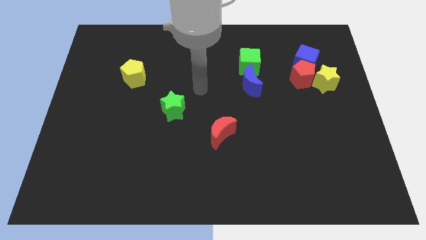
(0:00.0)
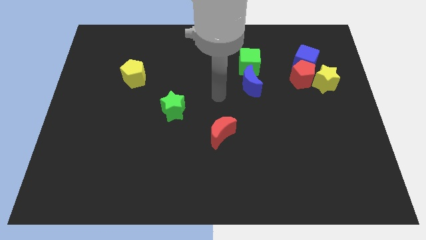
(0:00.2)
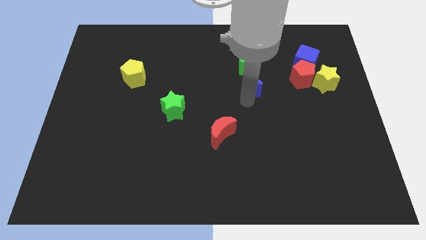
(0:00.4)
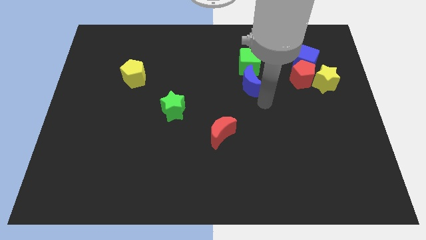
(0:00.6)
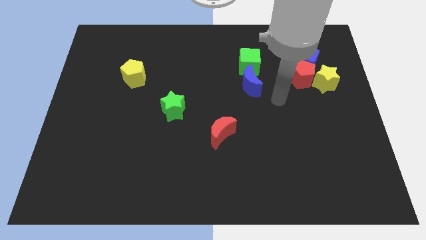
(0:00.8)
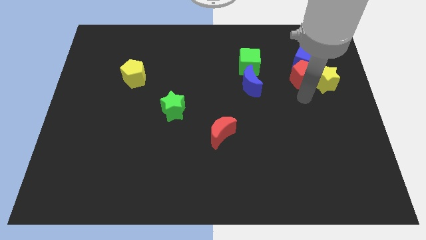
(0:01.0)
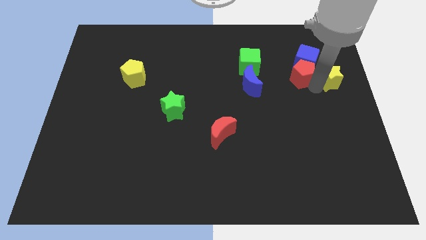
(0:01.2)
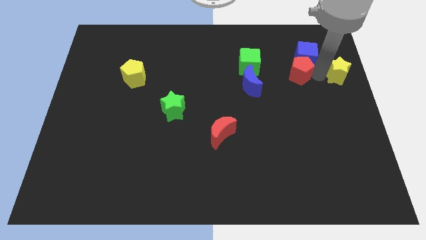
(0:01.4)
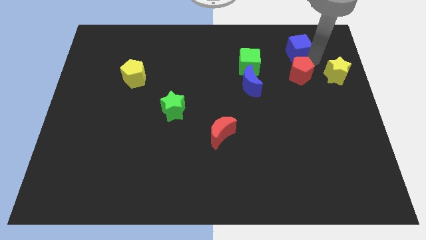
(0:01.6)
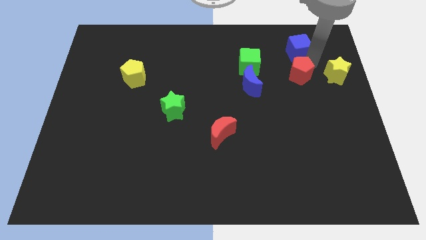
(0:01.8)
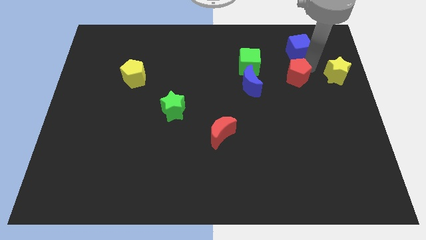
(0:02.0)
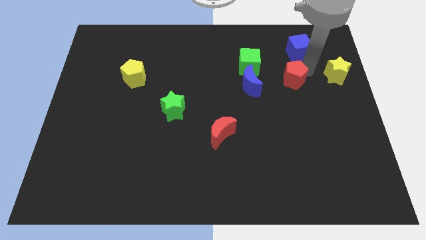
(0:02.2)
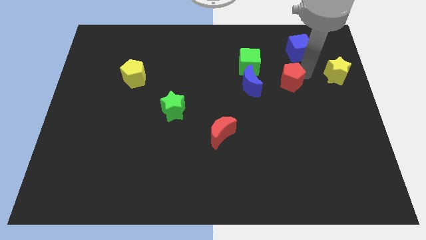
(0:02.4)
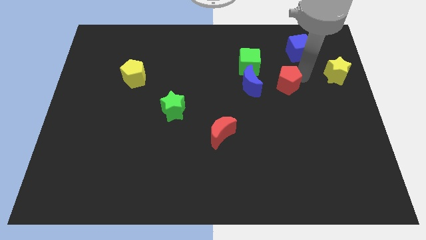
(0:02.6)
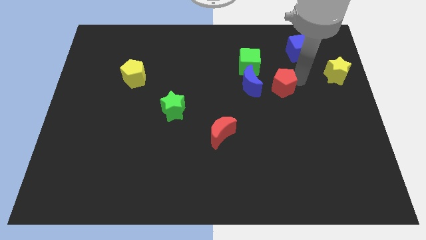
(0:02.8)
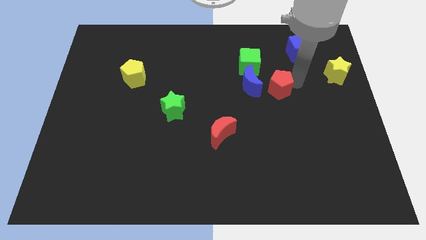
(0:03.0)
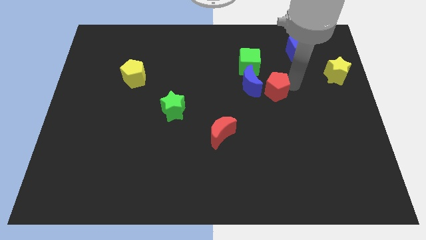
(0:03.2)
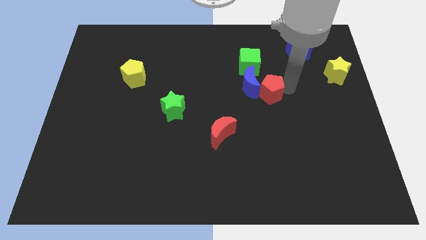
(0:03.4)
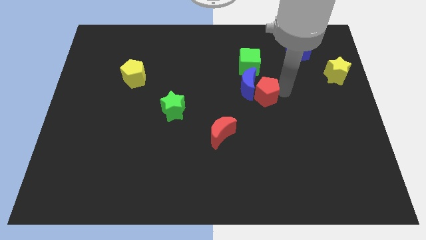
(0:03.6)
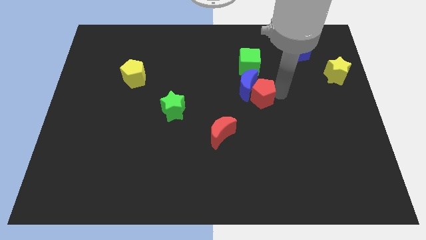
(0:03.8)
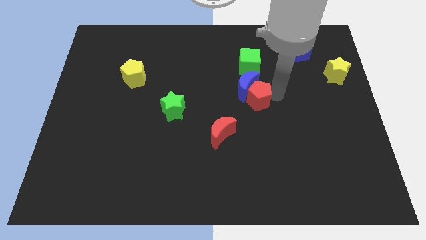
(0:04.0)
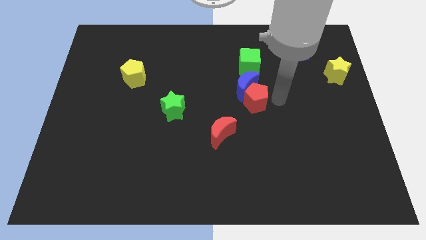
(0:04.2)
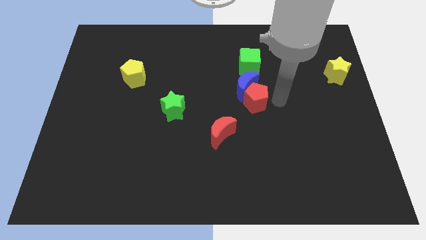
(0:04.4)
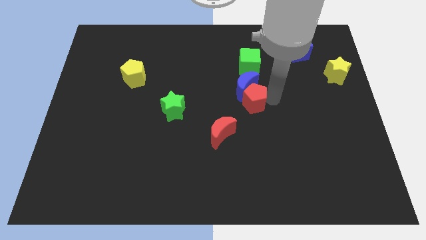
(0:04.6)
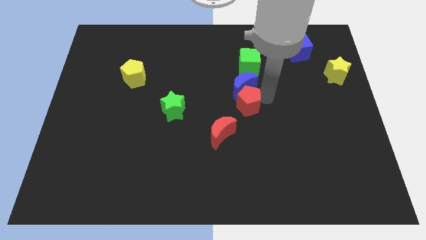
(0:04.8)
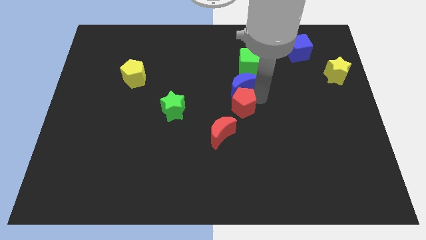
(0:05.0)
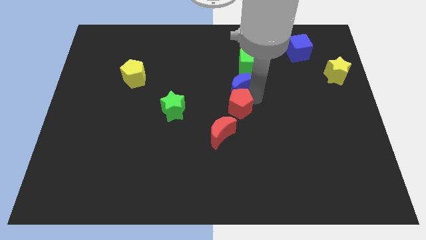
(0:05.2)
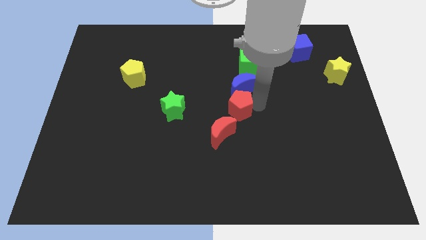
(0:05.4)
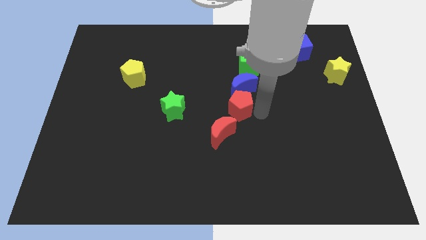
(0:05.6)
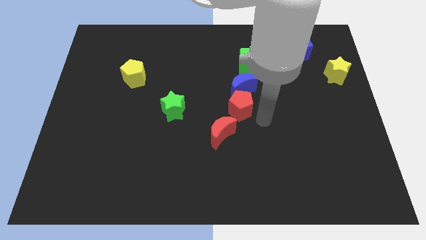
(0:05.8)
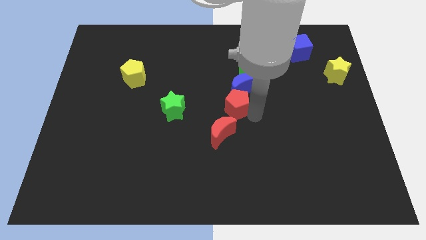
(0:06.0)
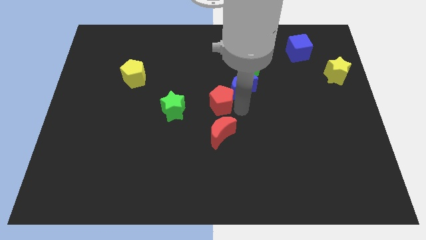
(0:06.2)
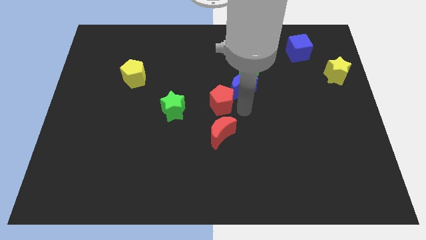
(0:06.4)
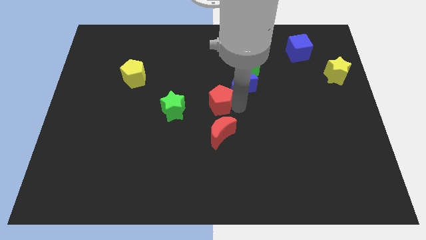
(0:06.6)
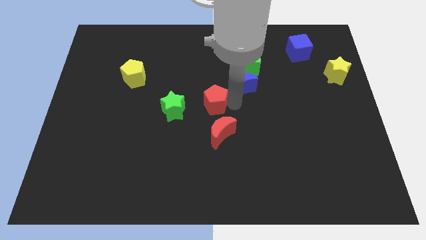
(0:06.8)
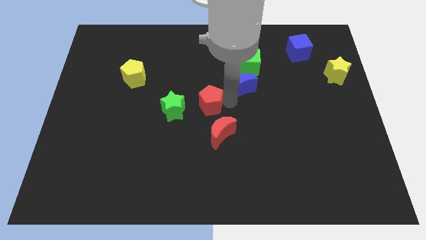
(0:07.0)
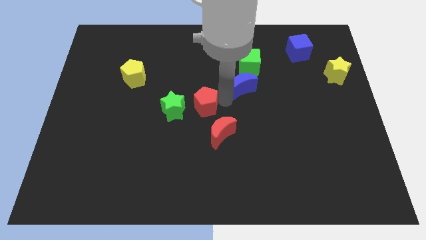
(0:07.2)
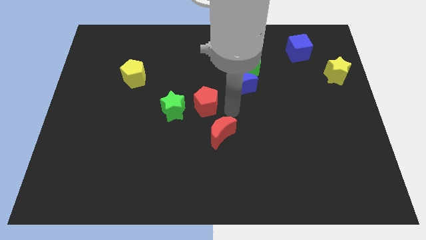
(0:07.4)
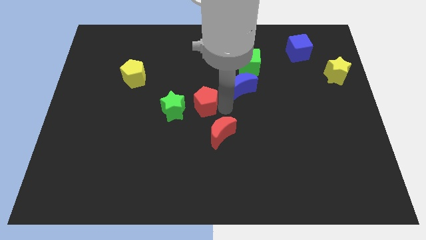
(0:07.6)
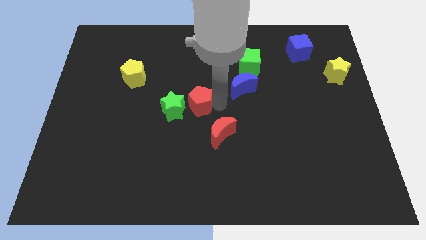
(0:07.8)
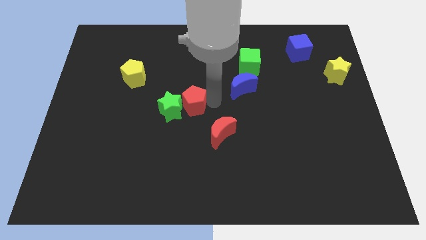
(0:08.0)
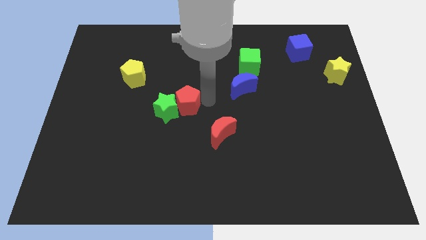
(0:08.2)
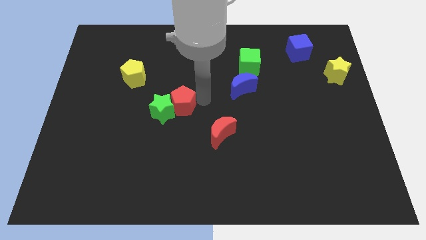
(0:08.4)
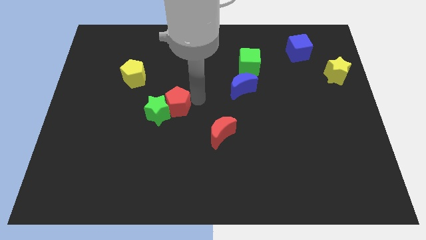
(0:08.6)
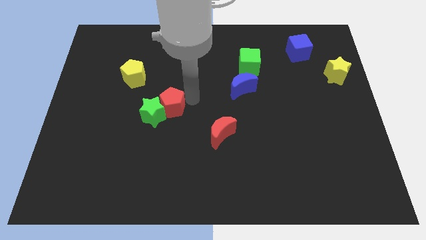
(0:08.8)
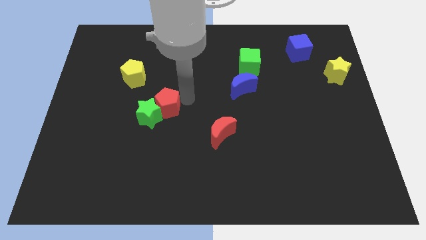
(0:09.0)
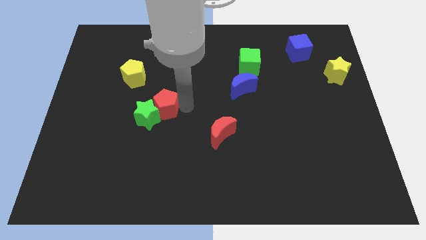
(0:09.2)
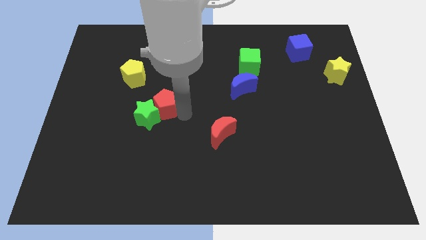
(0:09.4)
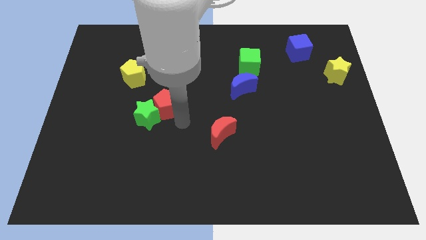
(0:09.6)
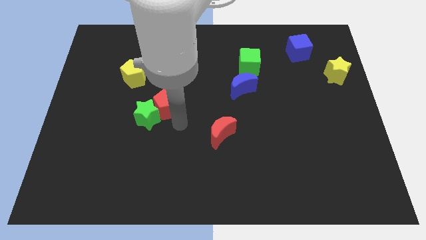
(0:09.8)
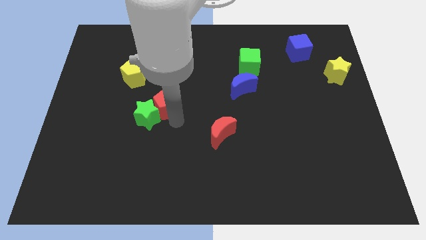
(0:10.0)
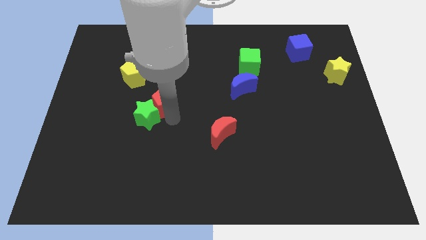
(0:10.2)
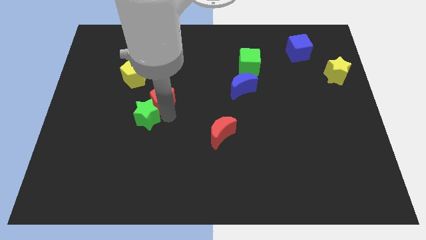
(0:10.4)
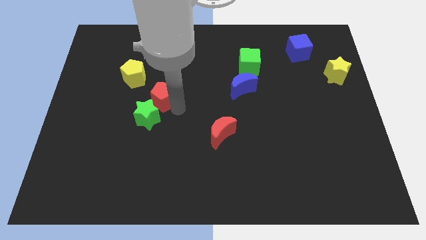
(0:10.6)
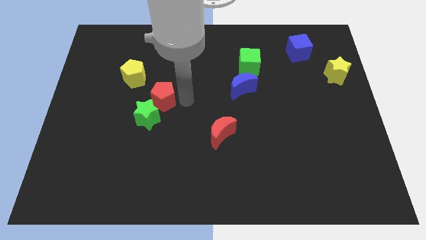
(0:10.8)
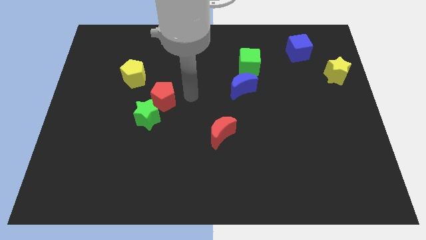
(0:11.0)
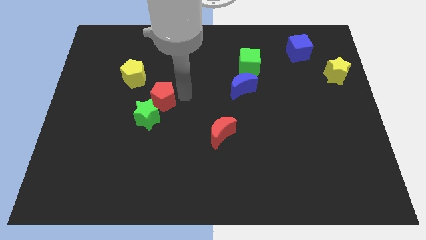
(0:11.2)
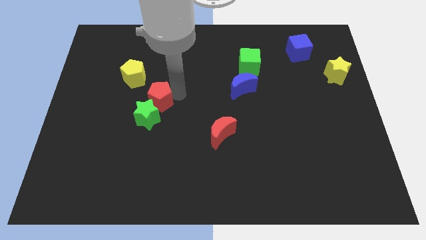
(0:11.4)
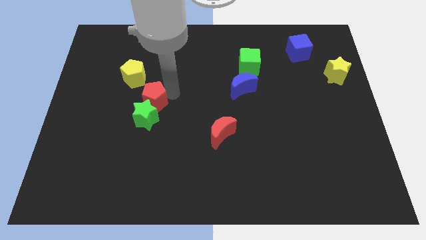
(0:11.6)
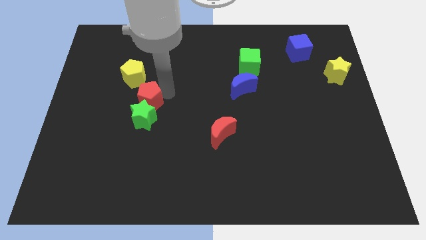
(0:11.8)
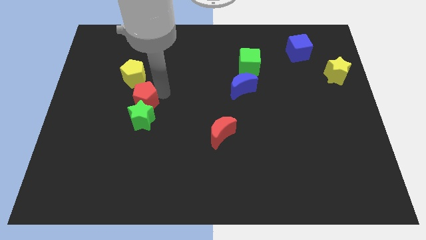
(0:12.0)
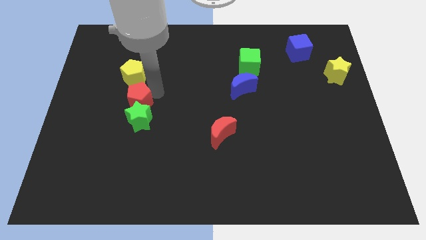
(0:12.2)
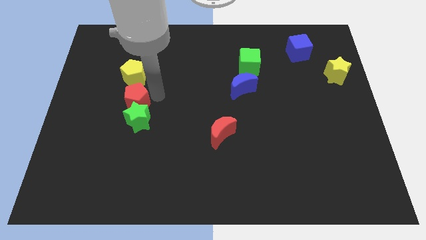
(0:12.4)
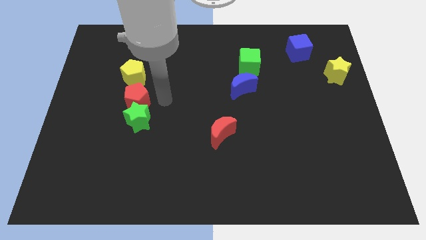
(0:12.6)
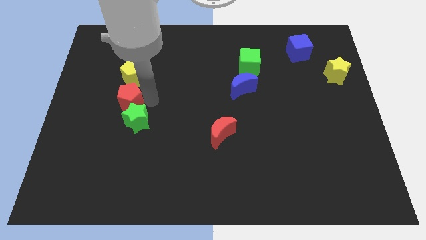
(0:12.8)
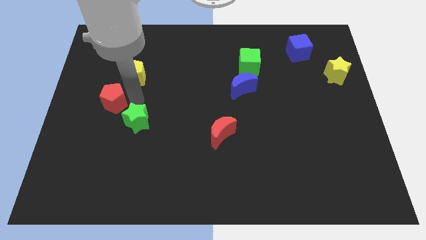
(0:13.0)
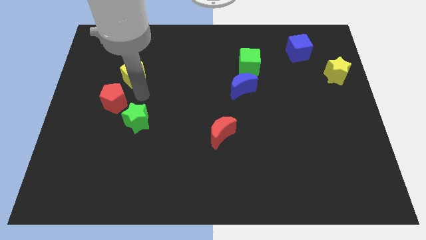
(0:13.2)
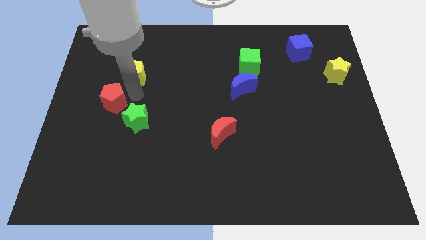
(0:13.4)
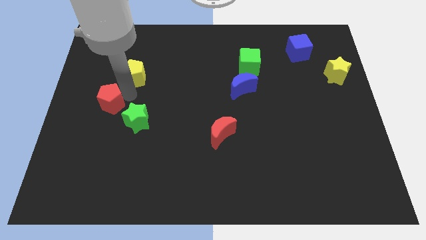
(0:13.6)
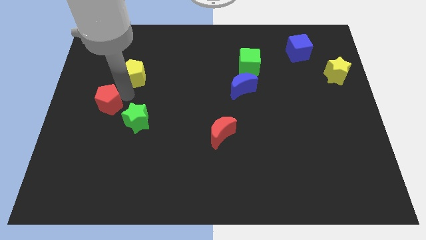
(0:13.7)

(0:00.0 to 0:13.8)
move the red pentagon to the left side
